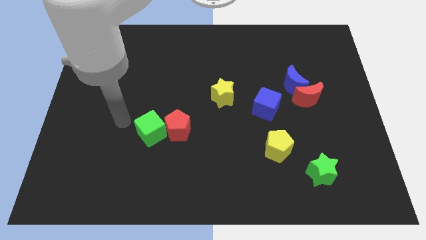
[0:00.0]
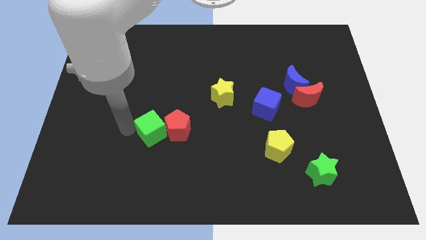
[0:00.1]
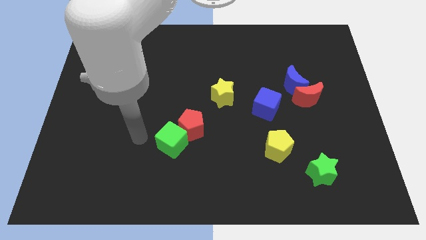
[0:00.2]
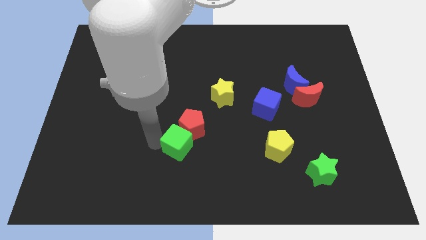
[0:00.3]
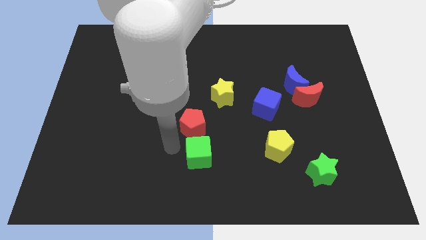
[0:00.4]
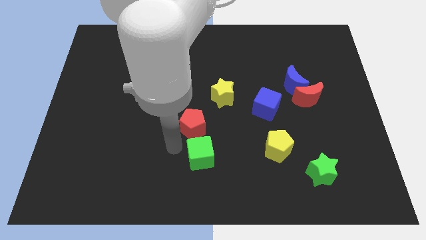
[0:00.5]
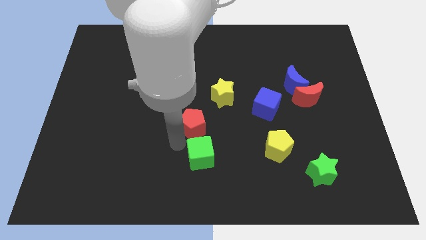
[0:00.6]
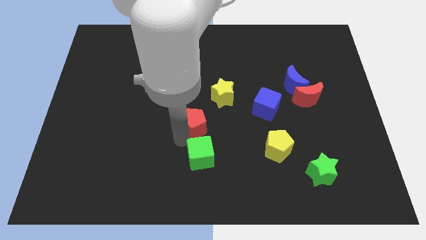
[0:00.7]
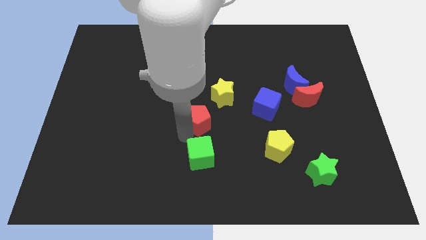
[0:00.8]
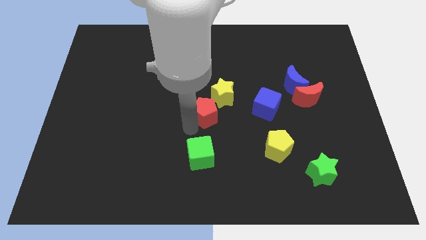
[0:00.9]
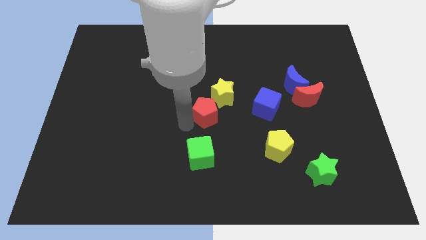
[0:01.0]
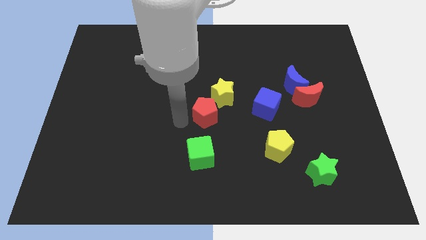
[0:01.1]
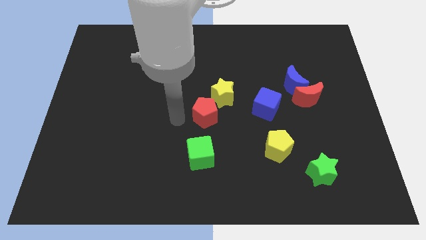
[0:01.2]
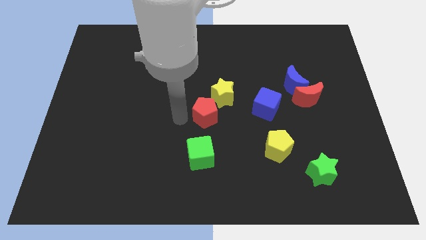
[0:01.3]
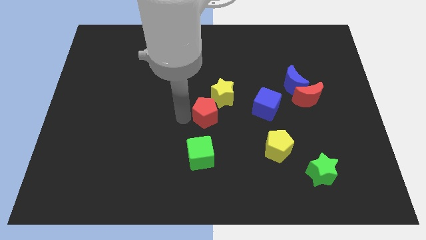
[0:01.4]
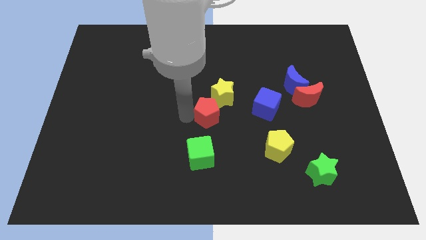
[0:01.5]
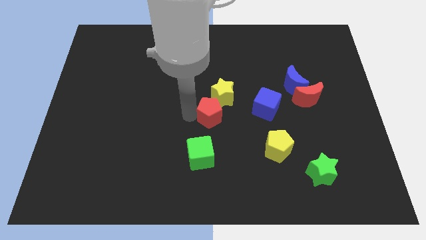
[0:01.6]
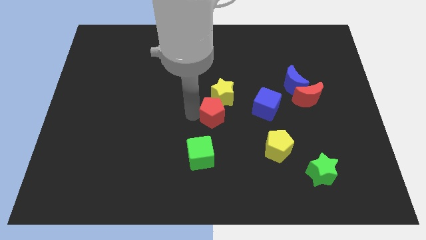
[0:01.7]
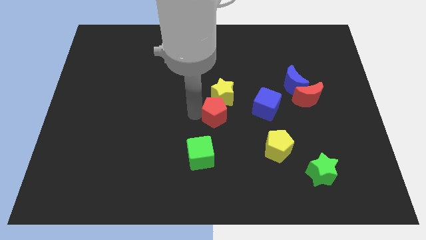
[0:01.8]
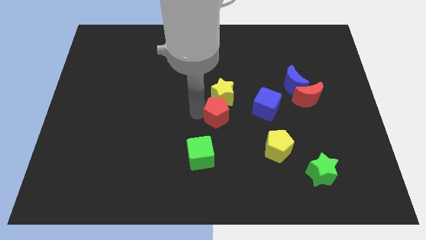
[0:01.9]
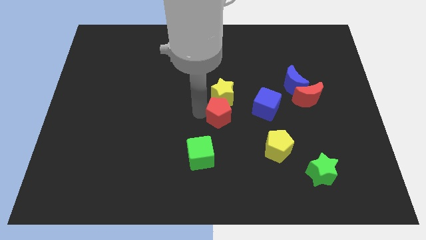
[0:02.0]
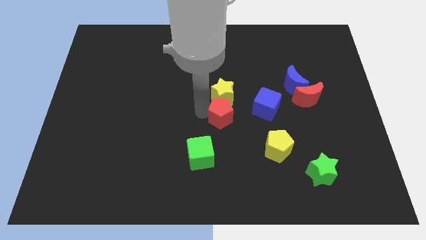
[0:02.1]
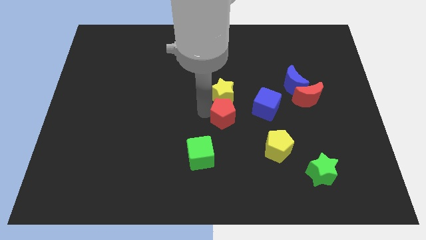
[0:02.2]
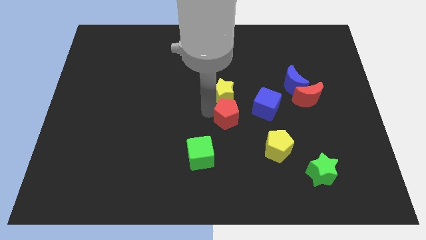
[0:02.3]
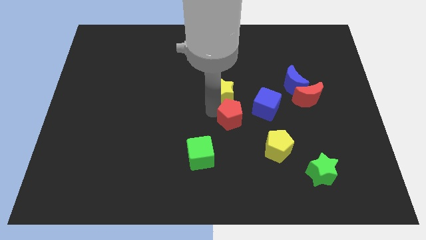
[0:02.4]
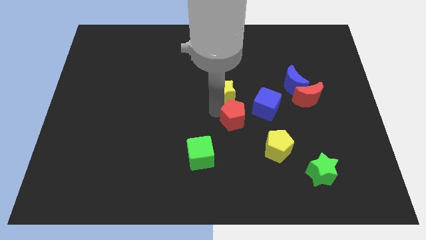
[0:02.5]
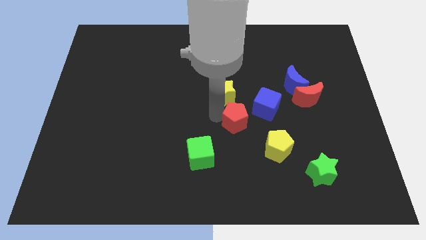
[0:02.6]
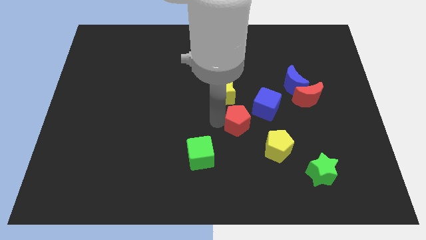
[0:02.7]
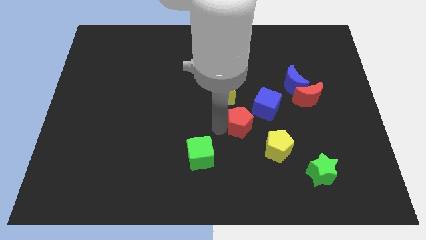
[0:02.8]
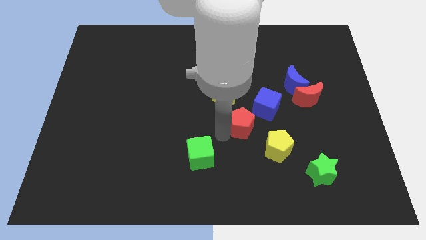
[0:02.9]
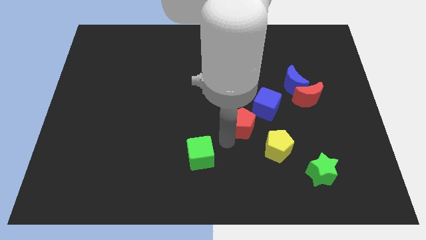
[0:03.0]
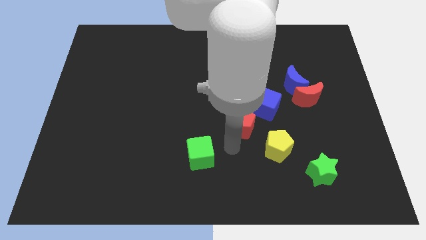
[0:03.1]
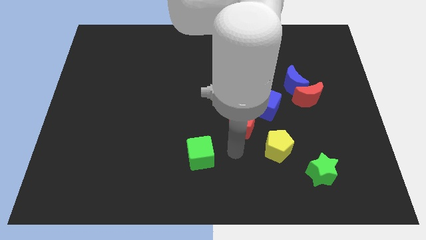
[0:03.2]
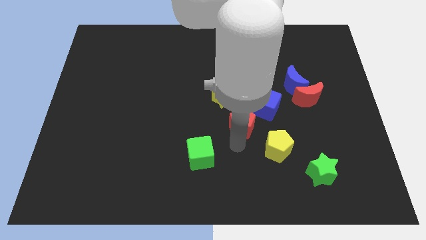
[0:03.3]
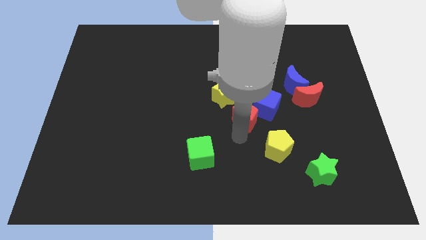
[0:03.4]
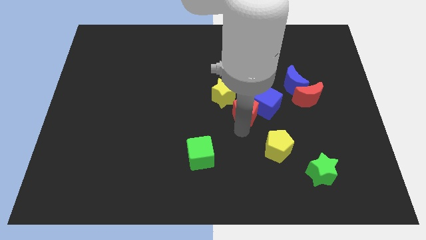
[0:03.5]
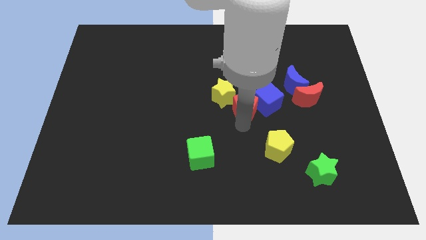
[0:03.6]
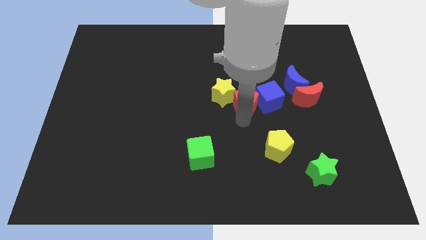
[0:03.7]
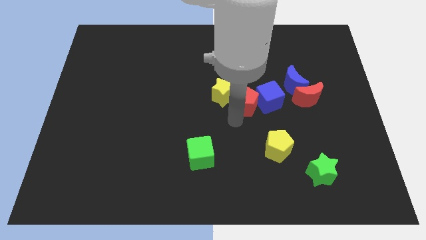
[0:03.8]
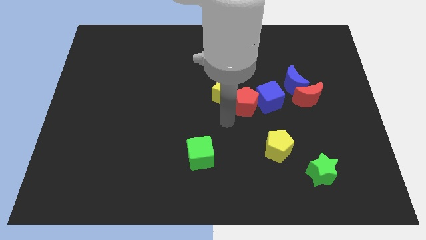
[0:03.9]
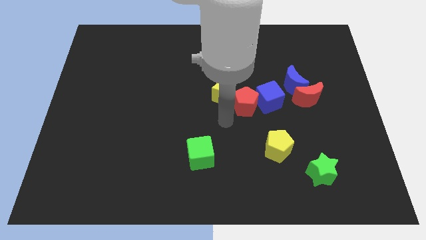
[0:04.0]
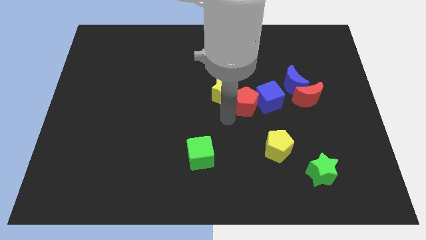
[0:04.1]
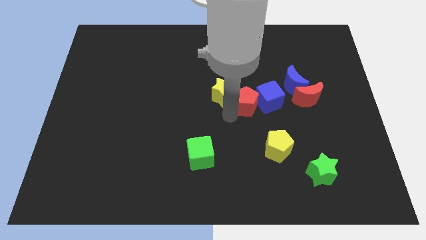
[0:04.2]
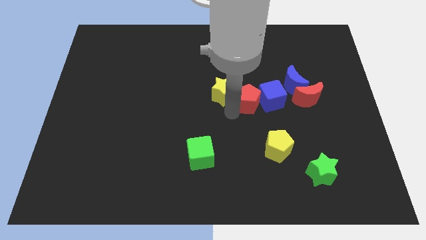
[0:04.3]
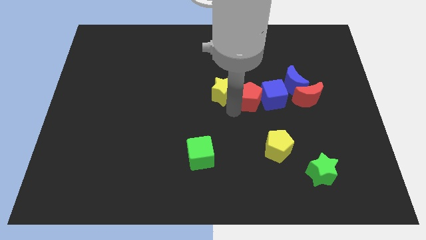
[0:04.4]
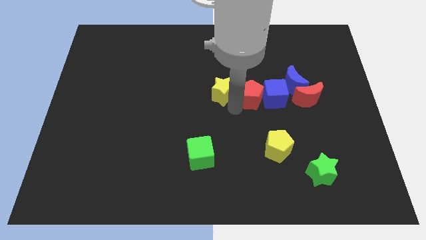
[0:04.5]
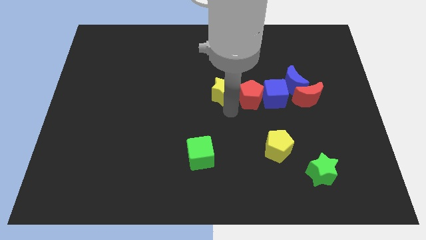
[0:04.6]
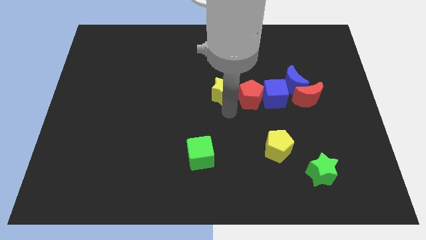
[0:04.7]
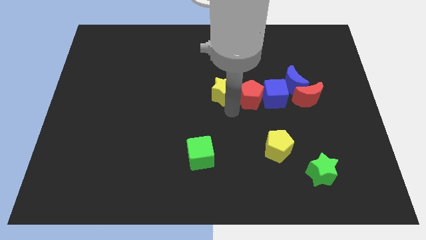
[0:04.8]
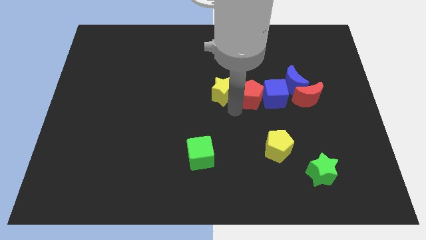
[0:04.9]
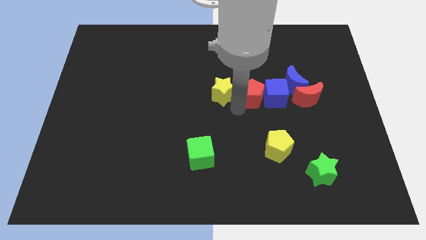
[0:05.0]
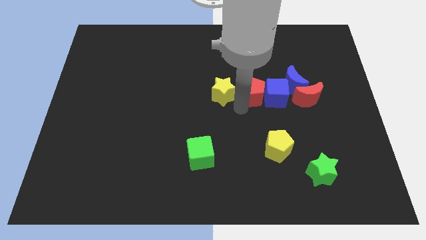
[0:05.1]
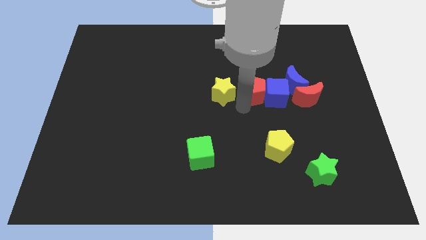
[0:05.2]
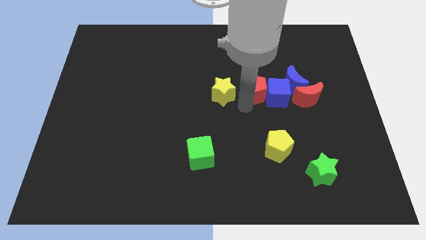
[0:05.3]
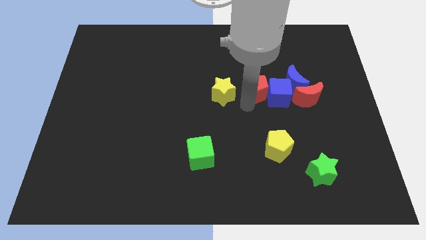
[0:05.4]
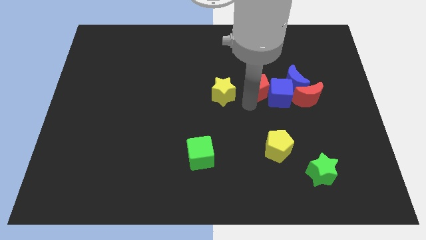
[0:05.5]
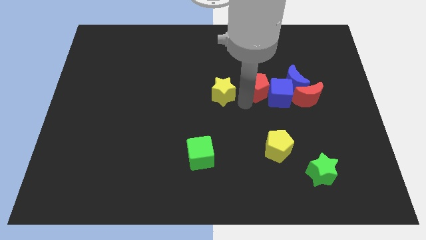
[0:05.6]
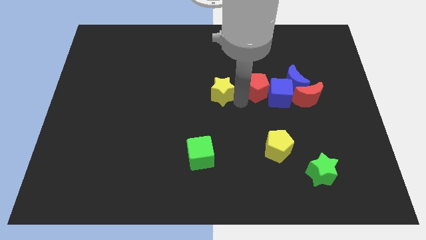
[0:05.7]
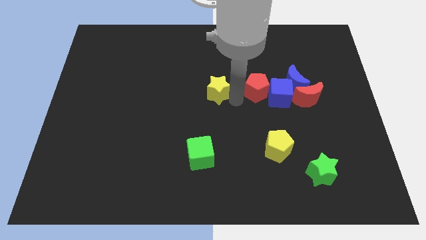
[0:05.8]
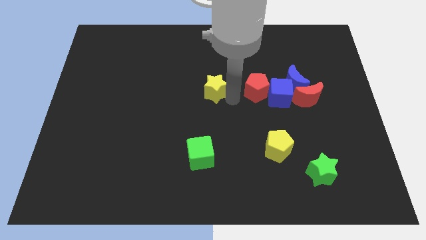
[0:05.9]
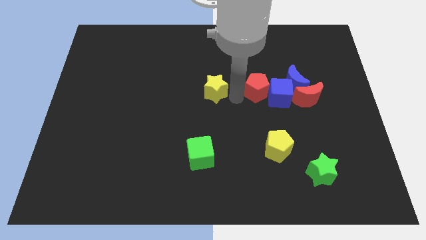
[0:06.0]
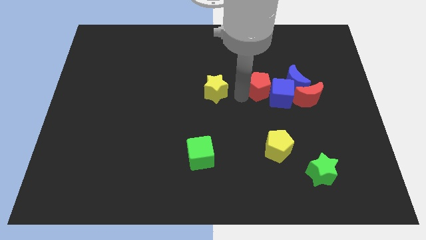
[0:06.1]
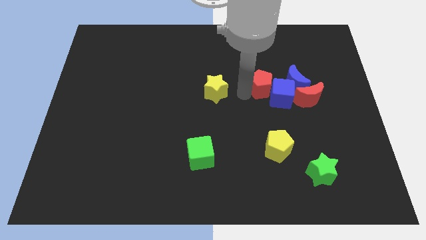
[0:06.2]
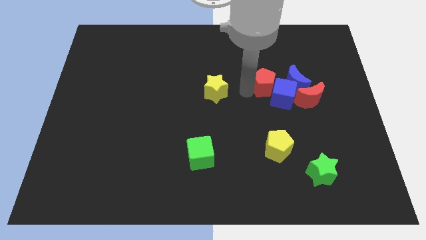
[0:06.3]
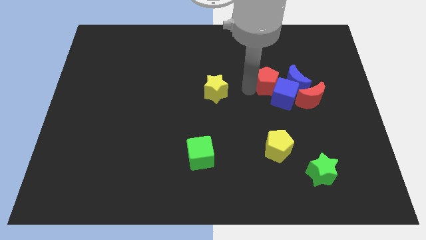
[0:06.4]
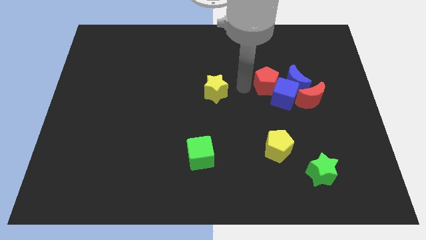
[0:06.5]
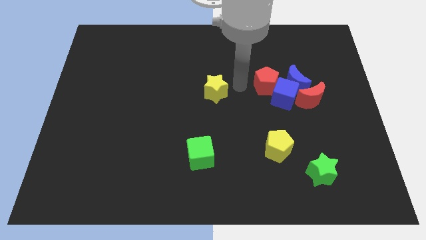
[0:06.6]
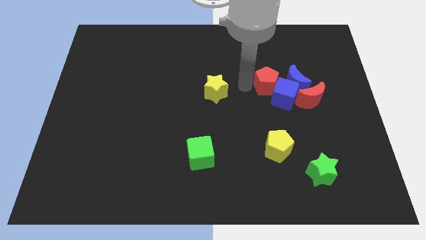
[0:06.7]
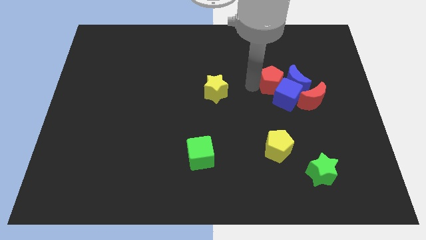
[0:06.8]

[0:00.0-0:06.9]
move the red pentagon next to the blue moon
